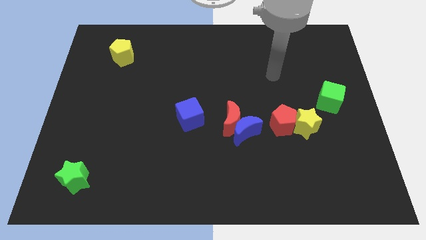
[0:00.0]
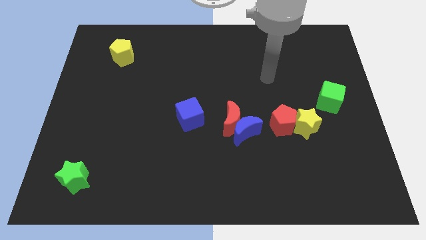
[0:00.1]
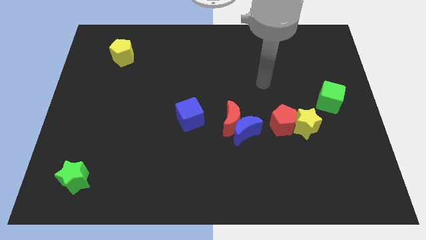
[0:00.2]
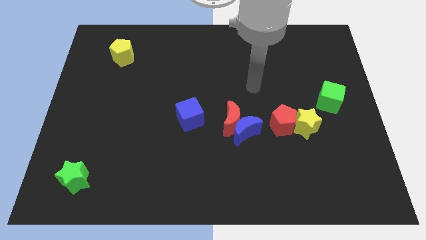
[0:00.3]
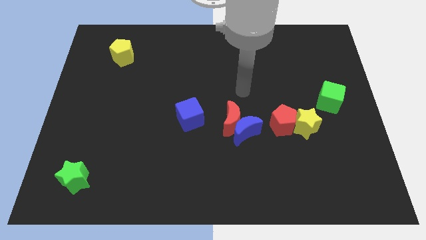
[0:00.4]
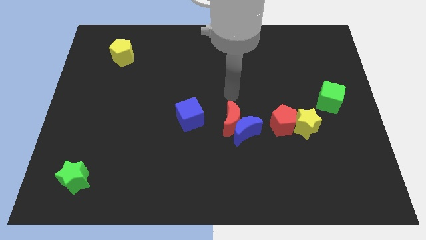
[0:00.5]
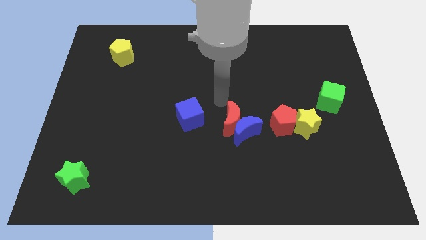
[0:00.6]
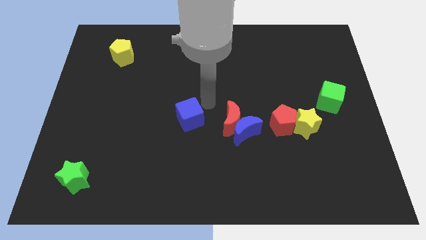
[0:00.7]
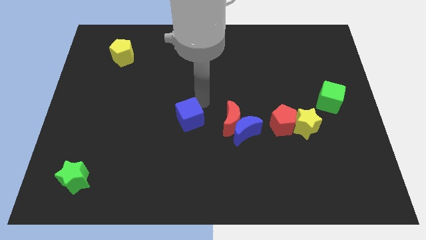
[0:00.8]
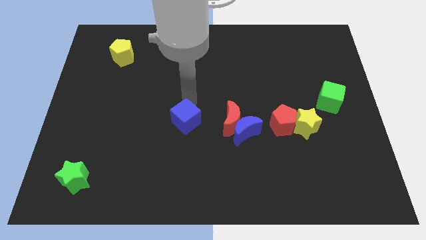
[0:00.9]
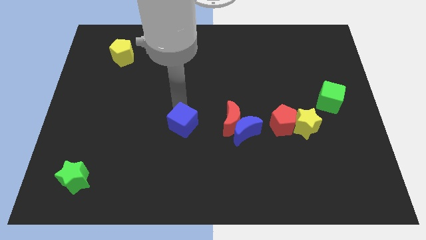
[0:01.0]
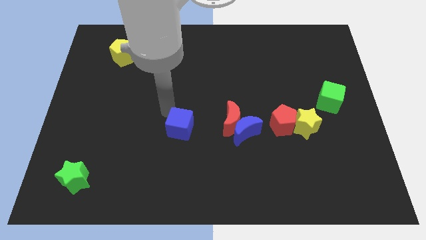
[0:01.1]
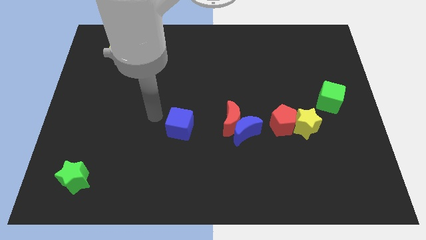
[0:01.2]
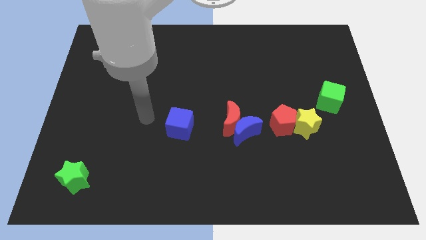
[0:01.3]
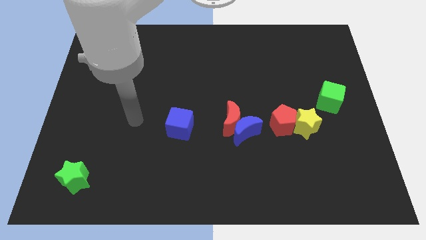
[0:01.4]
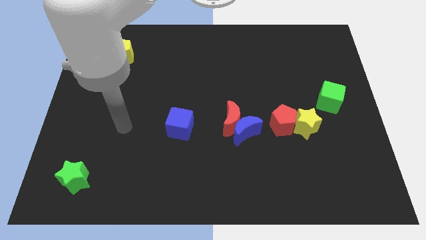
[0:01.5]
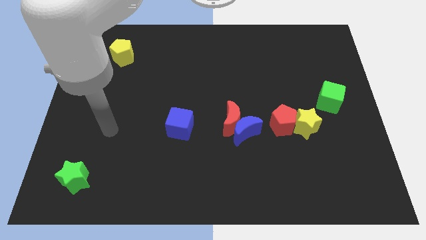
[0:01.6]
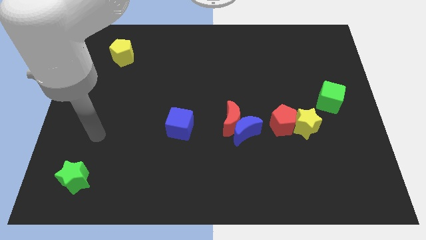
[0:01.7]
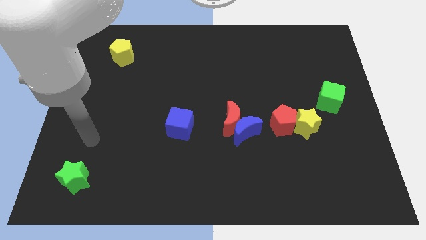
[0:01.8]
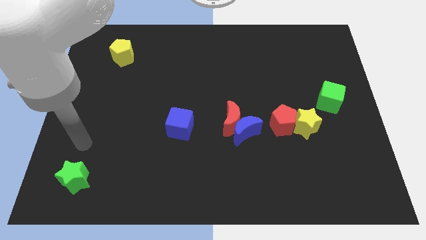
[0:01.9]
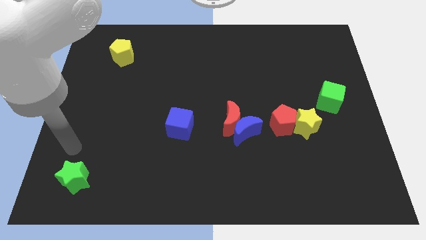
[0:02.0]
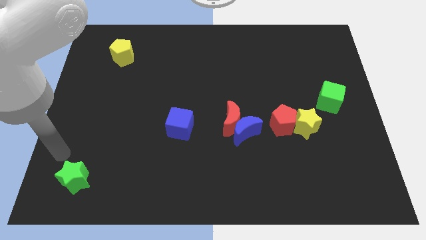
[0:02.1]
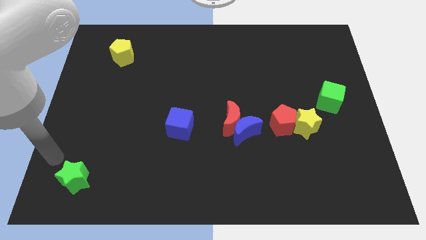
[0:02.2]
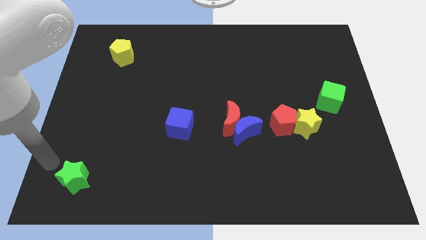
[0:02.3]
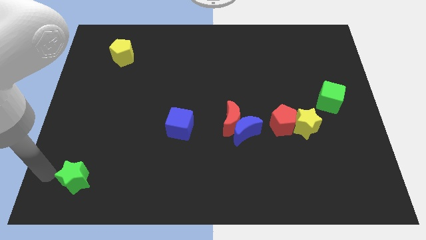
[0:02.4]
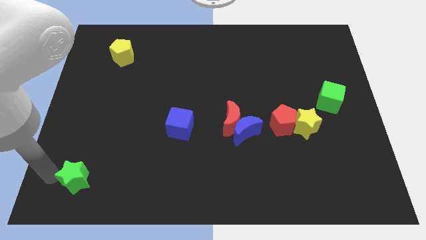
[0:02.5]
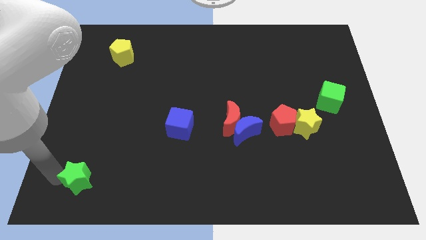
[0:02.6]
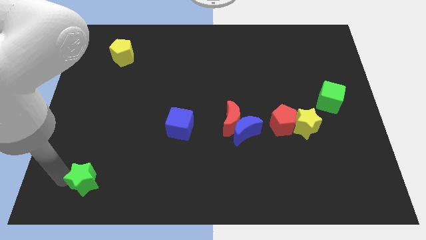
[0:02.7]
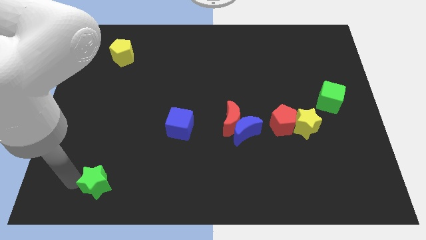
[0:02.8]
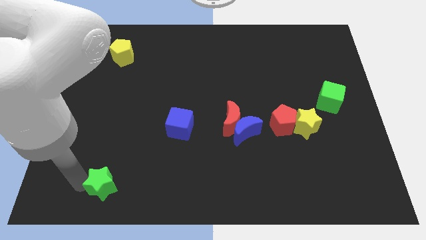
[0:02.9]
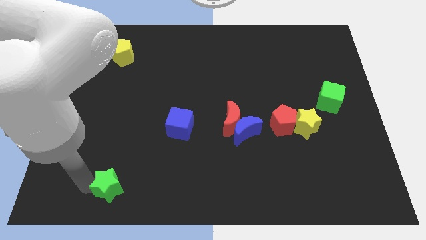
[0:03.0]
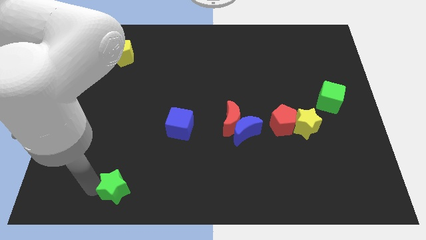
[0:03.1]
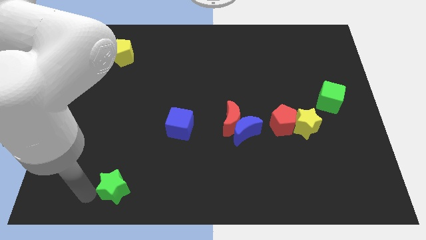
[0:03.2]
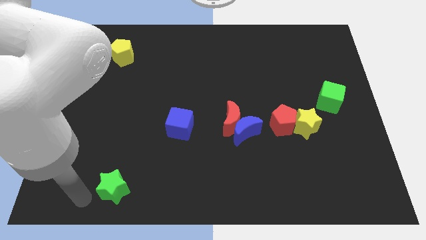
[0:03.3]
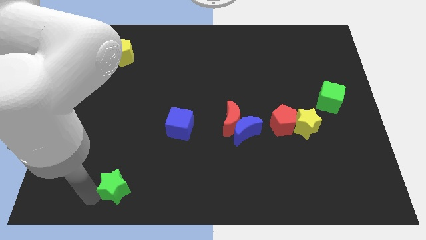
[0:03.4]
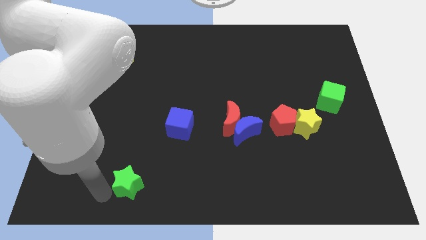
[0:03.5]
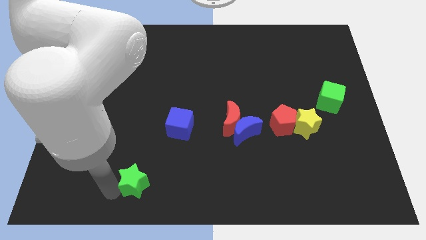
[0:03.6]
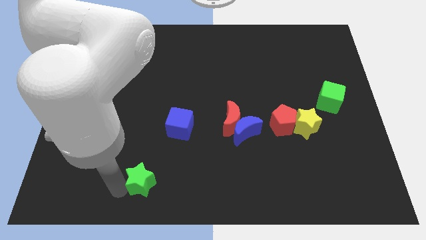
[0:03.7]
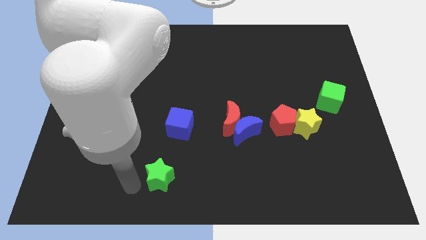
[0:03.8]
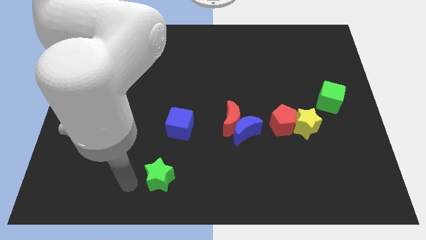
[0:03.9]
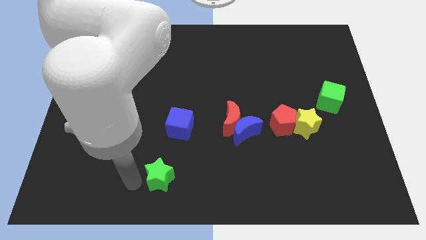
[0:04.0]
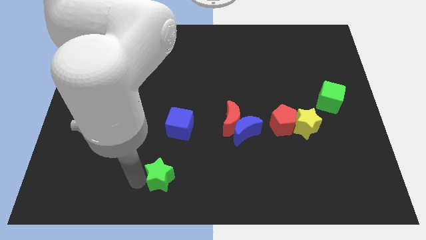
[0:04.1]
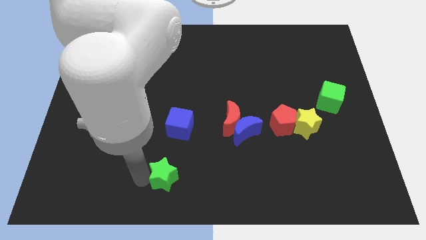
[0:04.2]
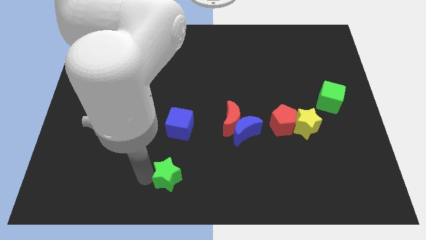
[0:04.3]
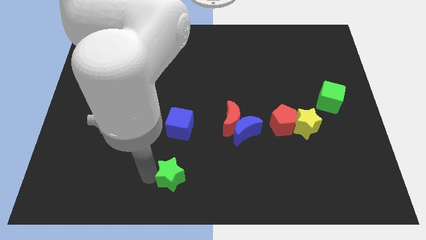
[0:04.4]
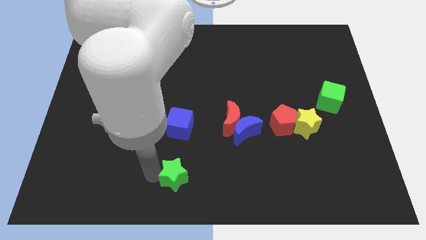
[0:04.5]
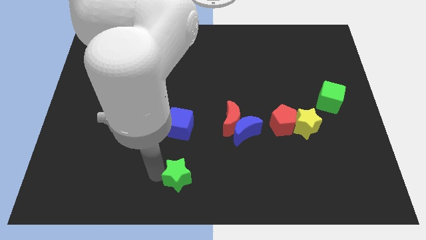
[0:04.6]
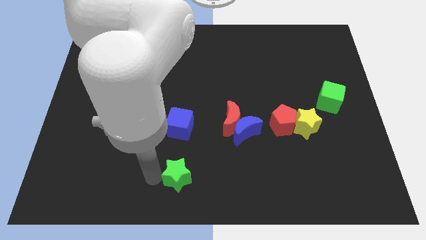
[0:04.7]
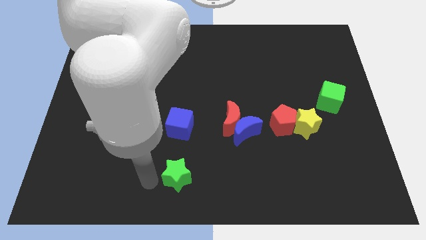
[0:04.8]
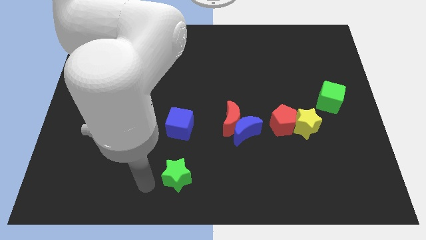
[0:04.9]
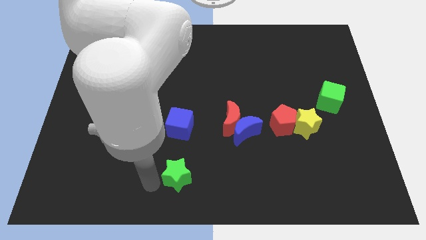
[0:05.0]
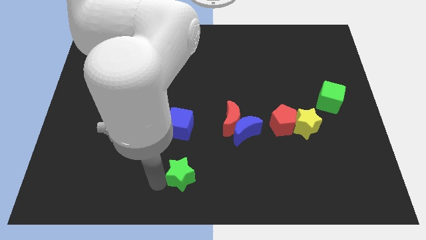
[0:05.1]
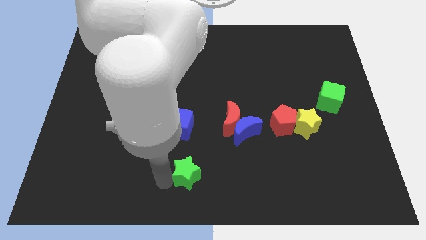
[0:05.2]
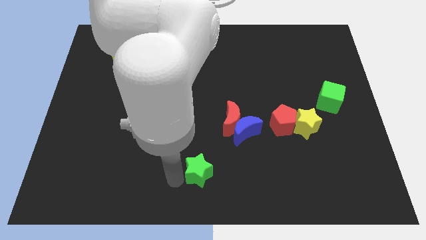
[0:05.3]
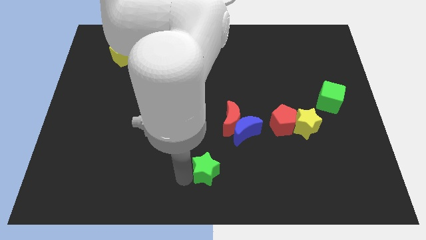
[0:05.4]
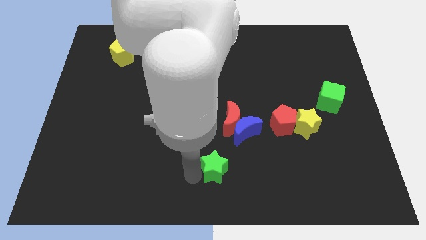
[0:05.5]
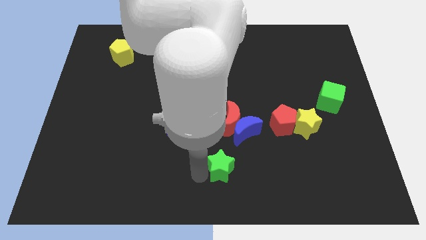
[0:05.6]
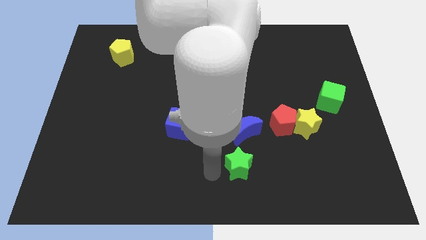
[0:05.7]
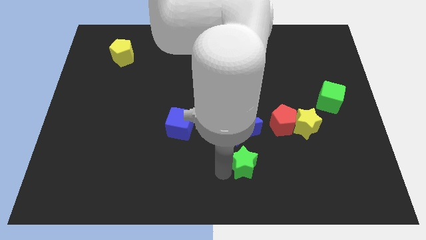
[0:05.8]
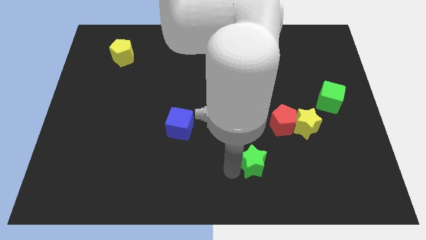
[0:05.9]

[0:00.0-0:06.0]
slide the green star to the bottom right side of the blue moon

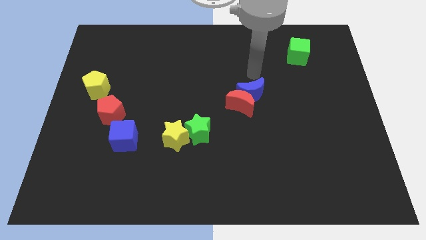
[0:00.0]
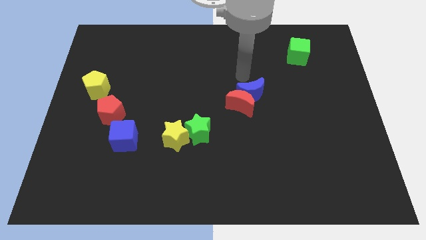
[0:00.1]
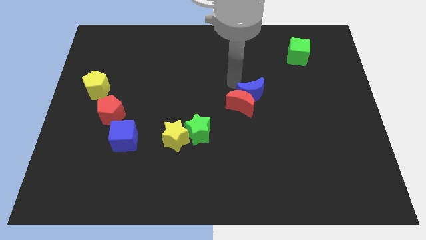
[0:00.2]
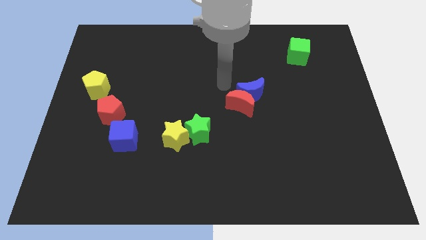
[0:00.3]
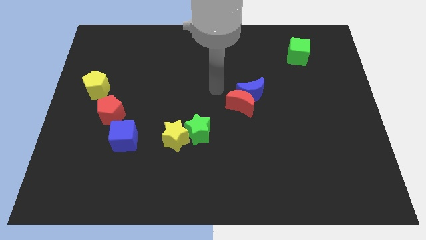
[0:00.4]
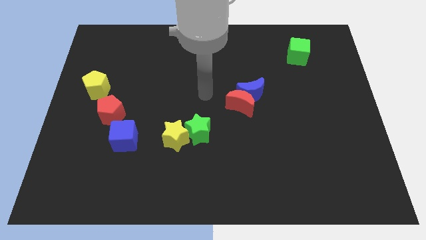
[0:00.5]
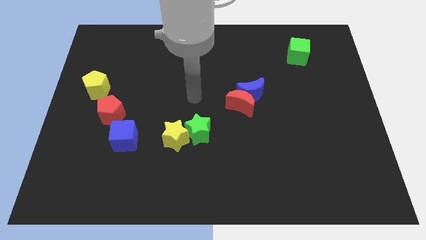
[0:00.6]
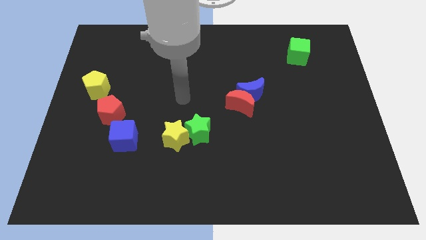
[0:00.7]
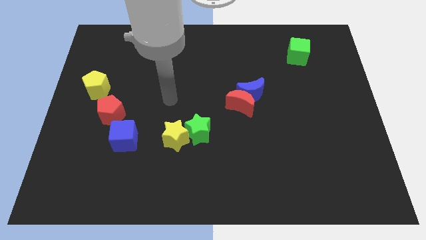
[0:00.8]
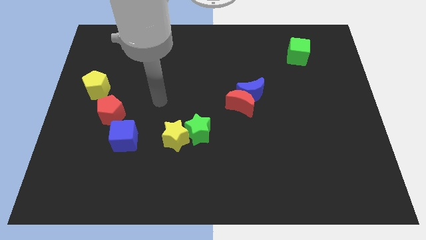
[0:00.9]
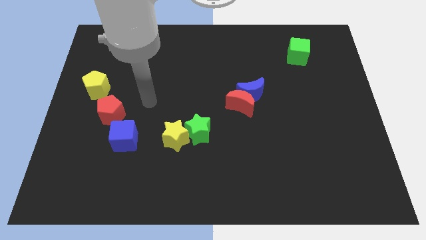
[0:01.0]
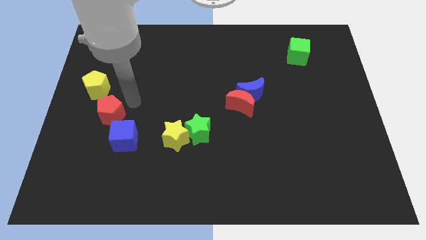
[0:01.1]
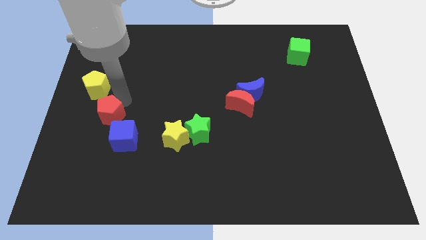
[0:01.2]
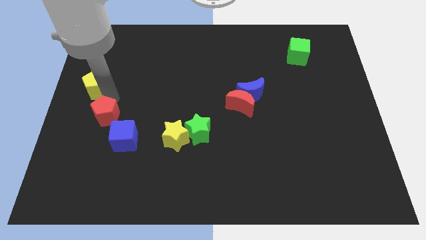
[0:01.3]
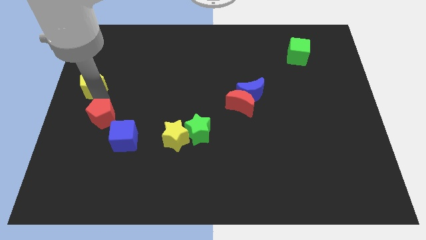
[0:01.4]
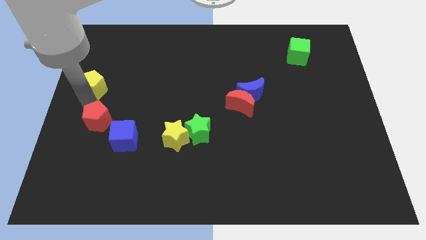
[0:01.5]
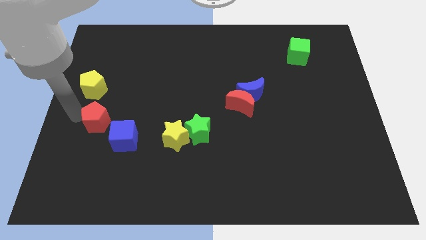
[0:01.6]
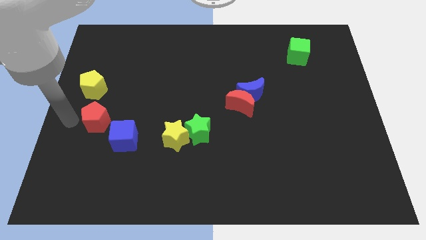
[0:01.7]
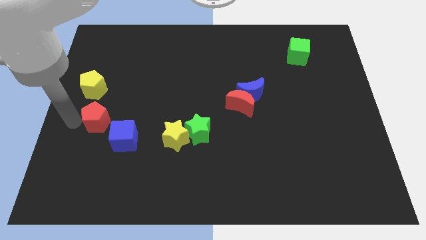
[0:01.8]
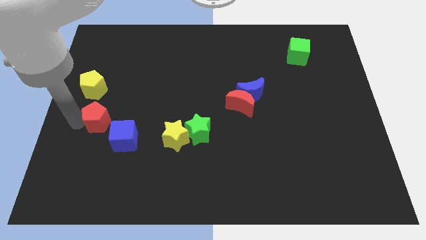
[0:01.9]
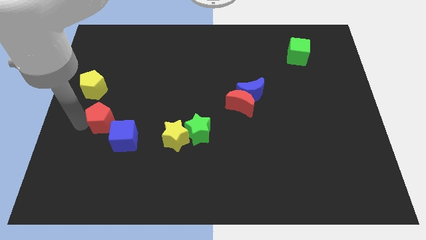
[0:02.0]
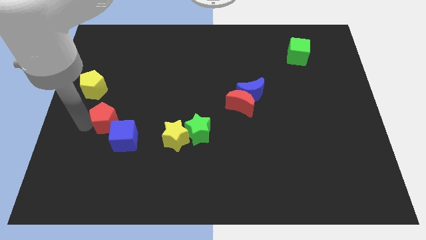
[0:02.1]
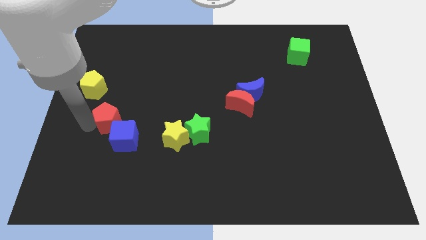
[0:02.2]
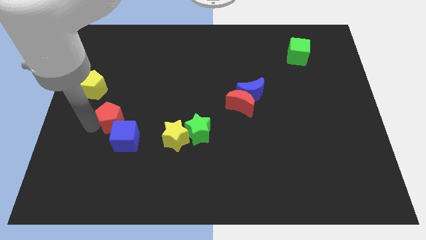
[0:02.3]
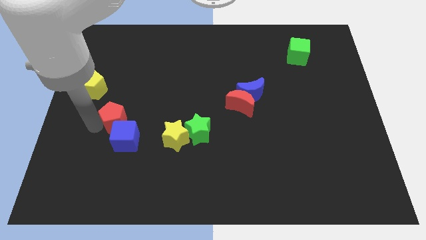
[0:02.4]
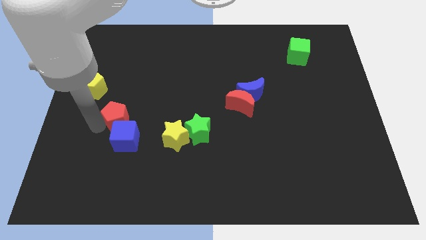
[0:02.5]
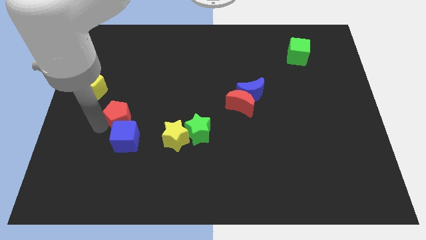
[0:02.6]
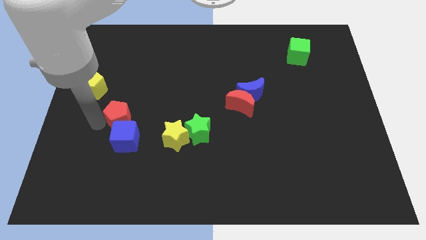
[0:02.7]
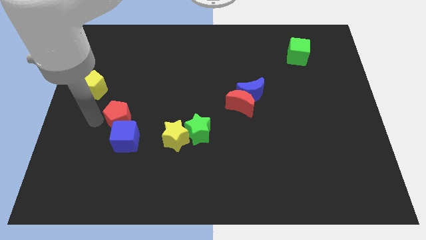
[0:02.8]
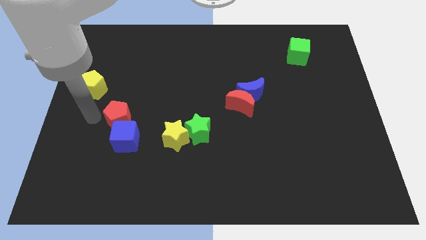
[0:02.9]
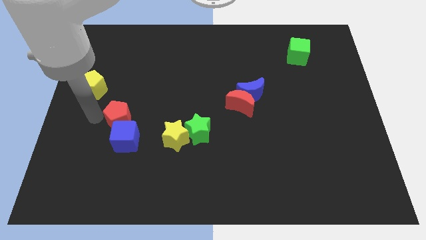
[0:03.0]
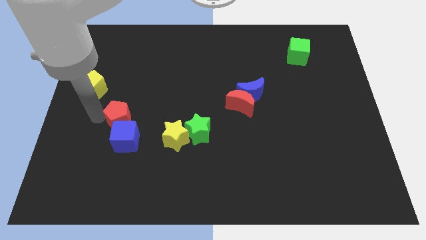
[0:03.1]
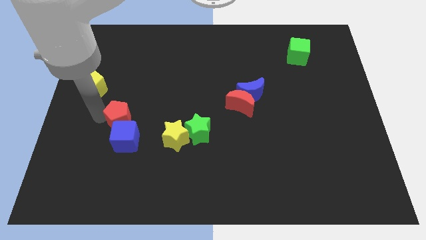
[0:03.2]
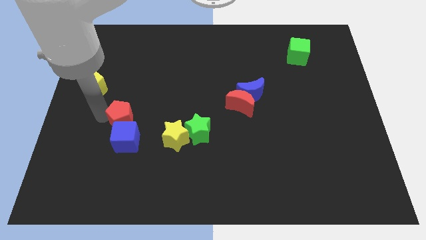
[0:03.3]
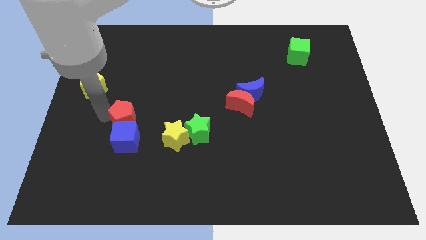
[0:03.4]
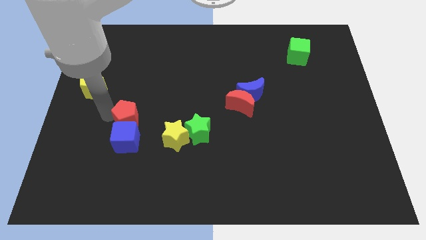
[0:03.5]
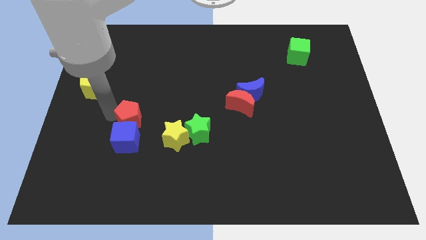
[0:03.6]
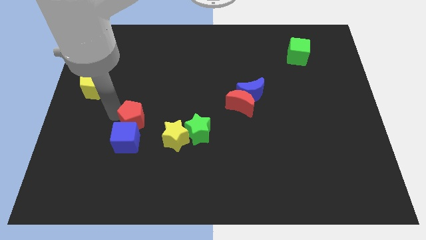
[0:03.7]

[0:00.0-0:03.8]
push the red pentagon left of the green star
